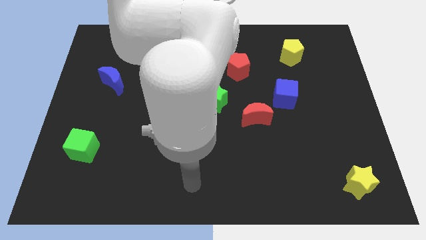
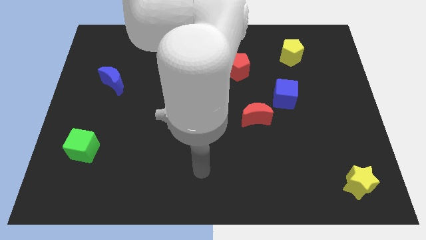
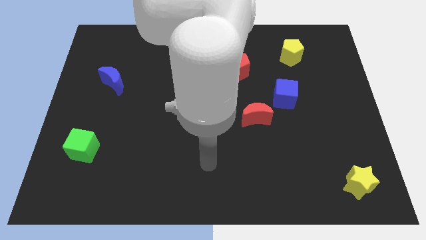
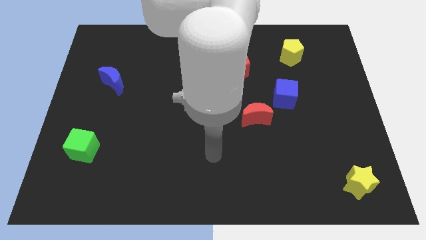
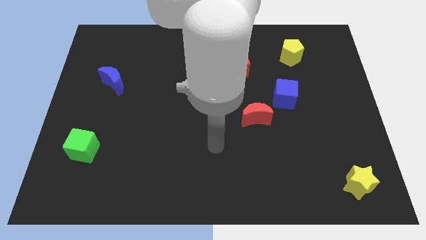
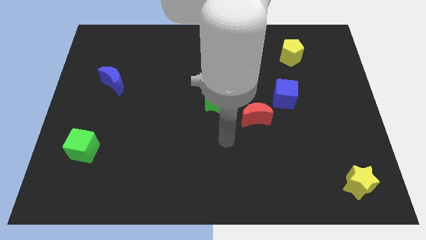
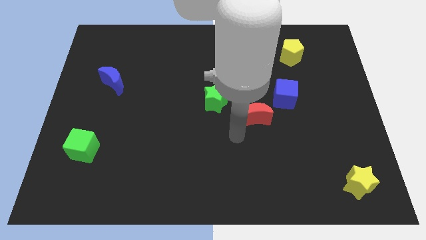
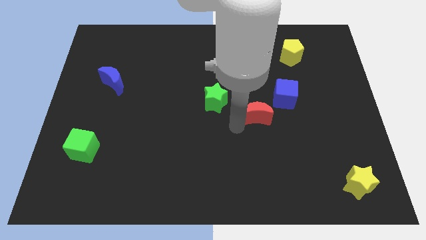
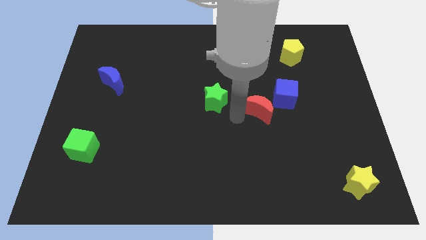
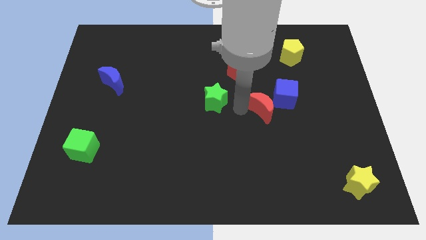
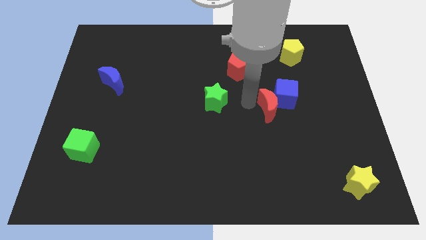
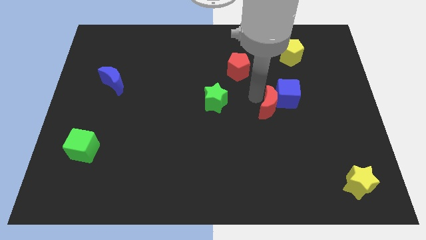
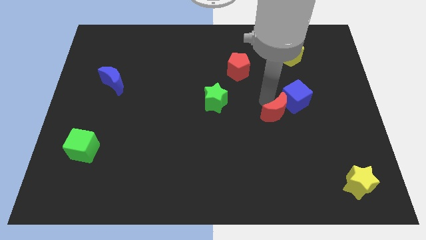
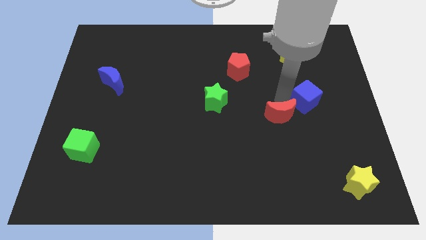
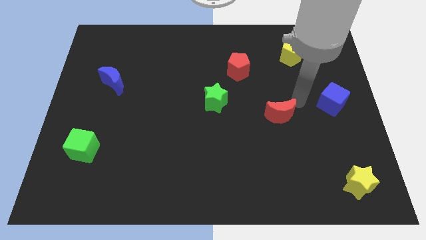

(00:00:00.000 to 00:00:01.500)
pull the red moon apart from the blue cube

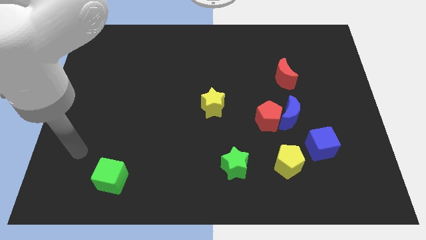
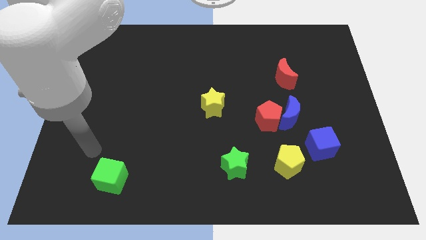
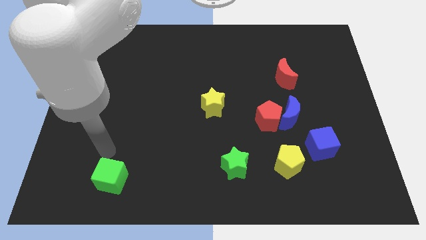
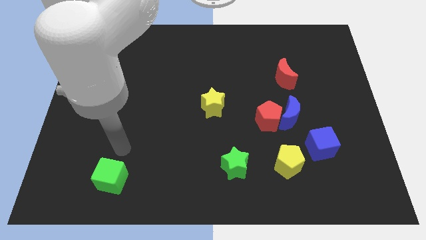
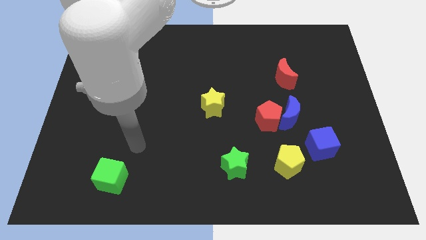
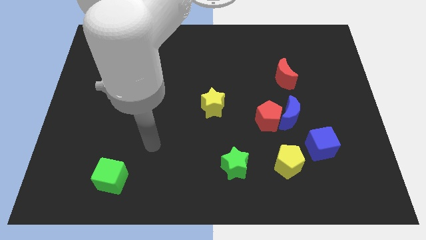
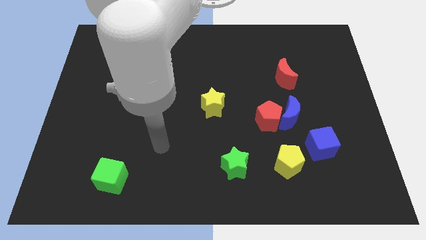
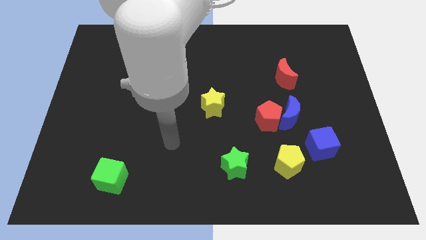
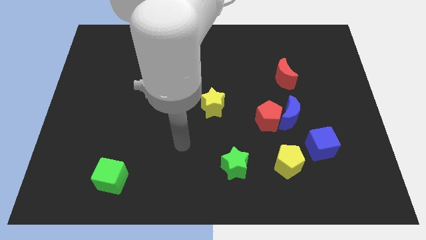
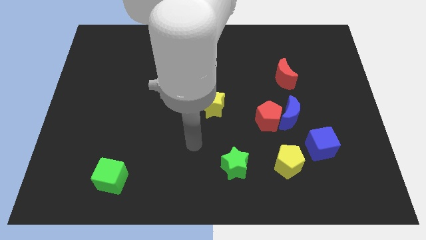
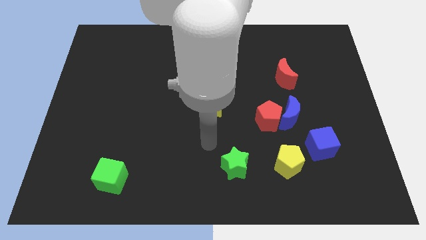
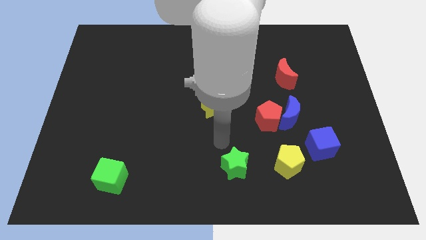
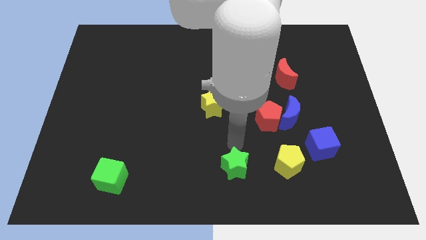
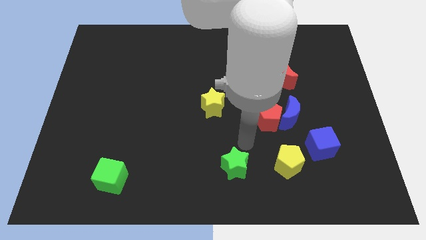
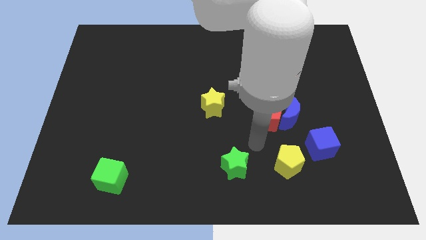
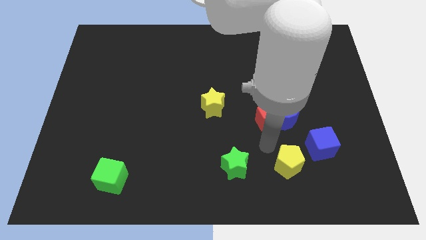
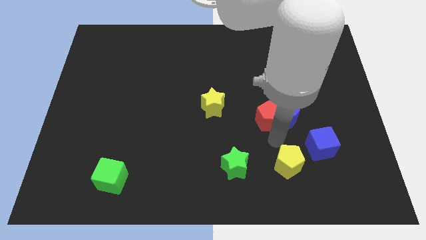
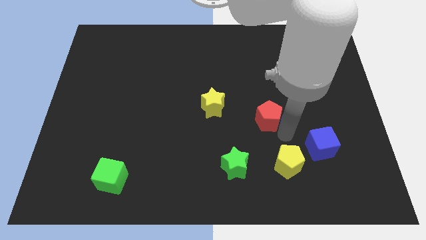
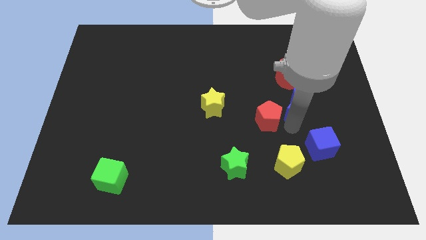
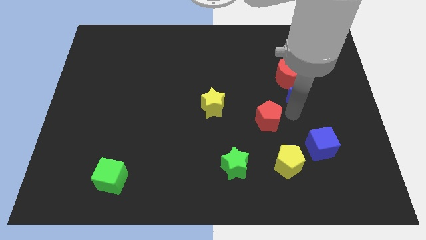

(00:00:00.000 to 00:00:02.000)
move the red pentagon away from the blue moon

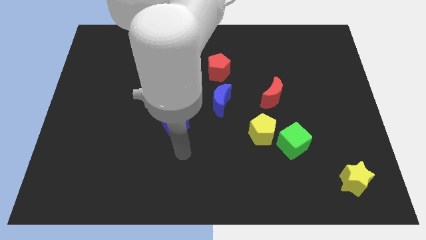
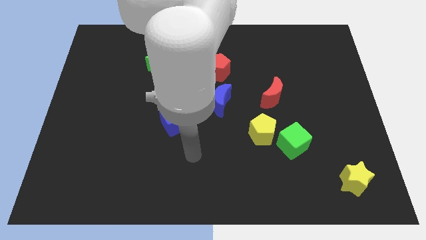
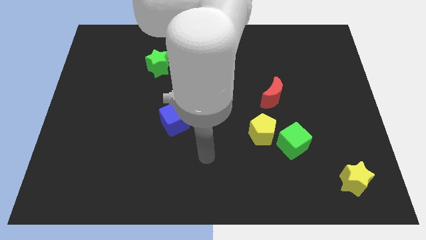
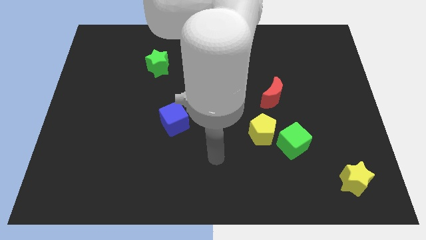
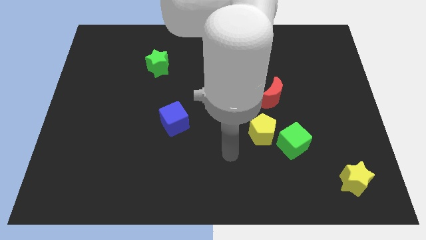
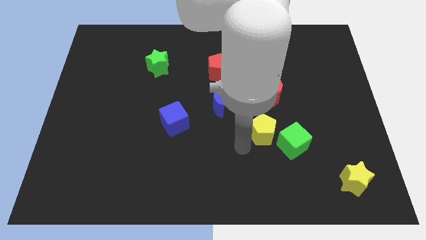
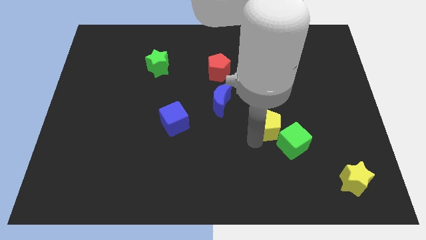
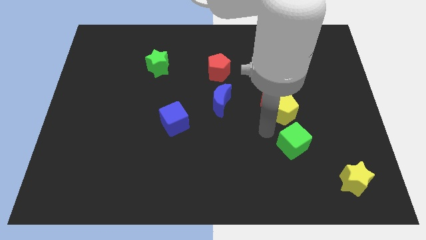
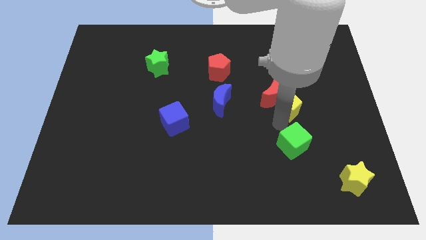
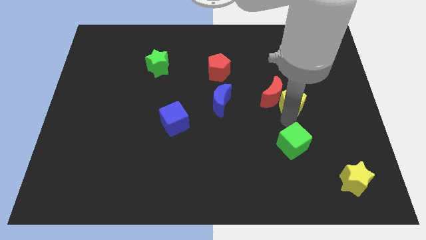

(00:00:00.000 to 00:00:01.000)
move the green cube away from the yellow pentagon

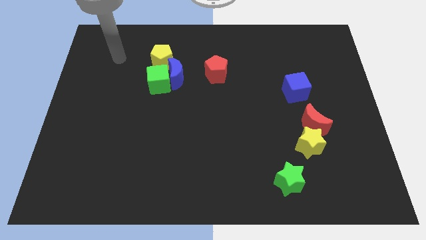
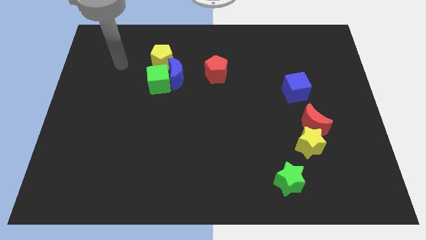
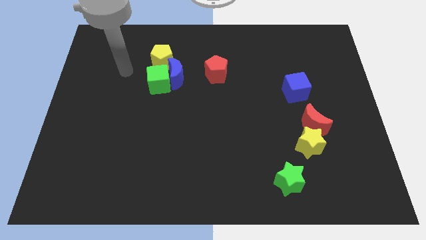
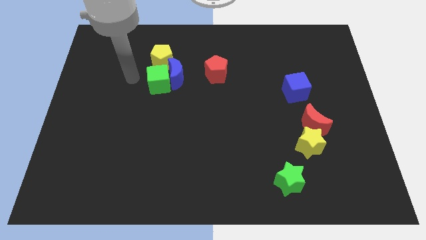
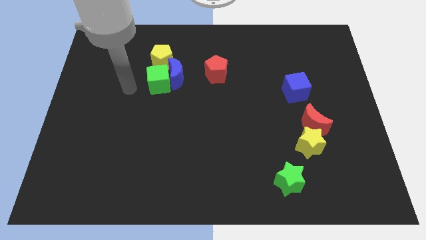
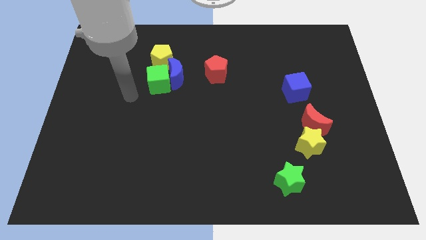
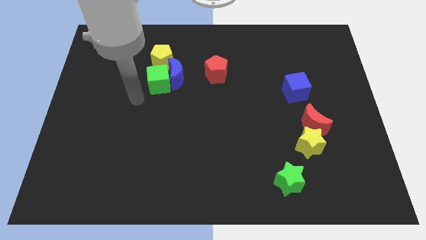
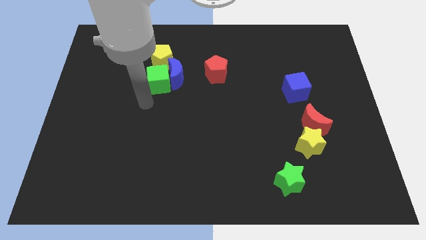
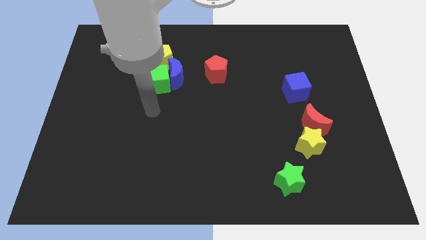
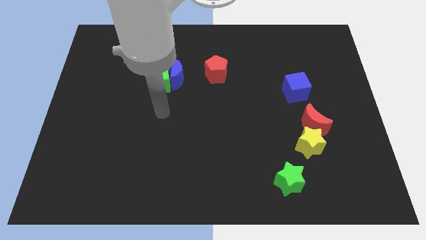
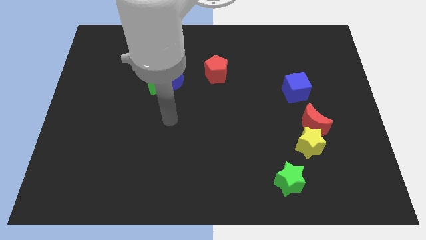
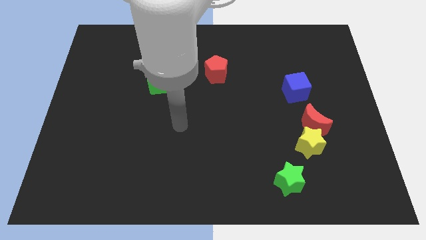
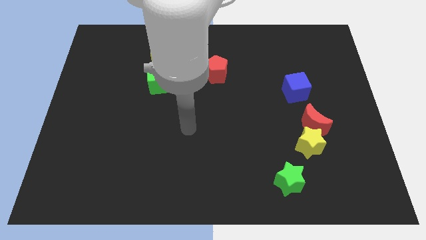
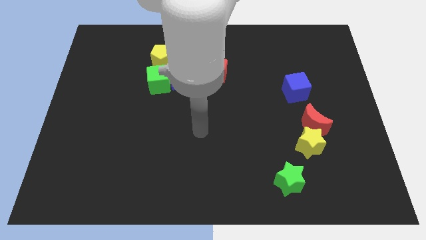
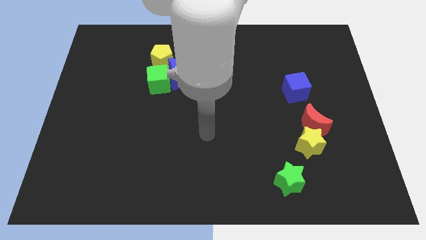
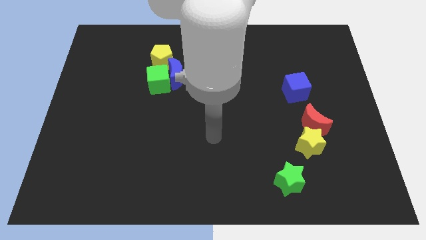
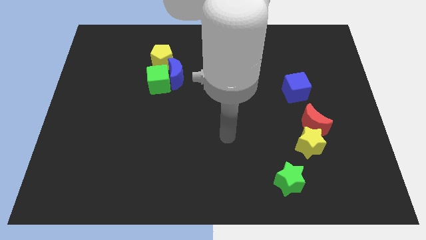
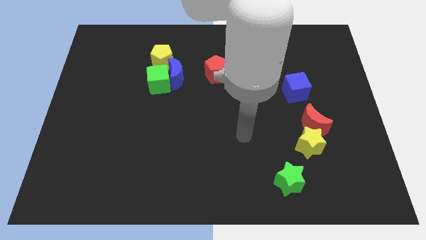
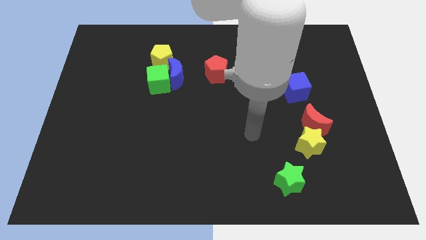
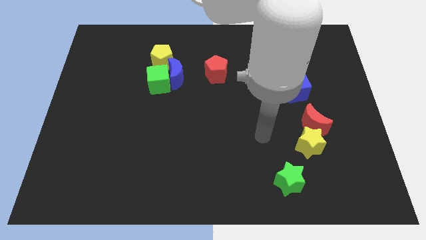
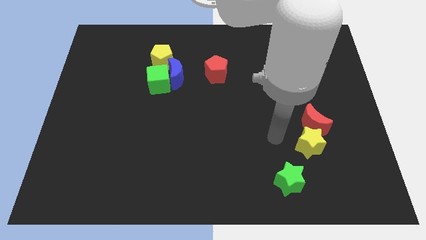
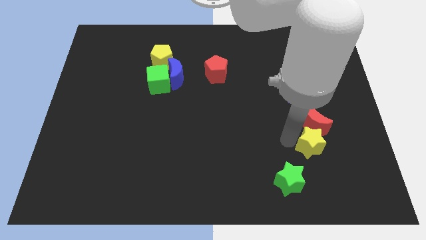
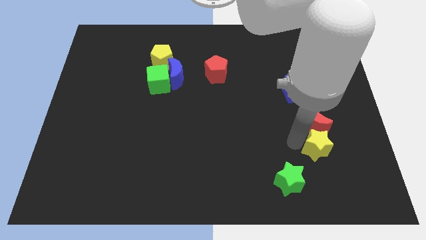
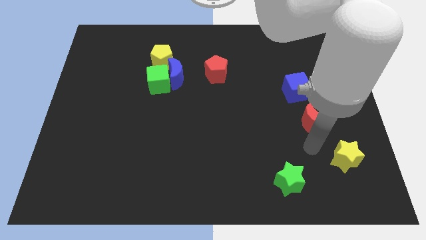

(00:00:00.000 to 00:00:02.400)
separate the red moon from the yellow star

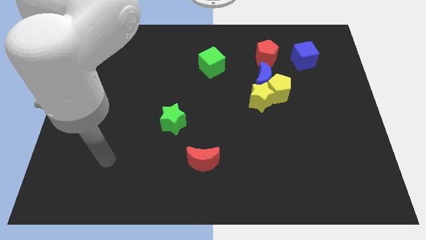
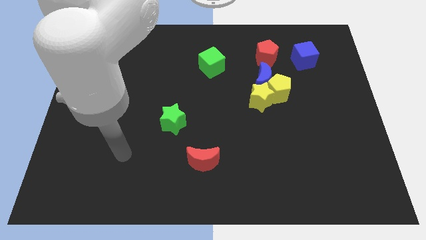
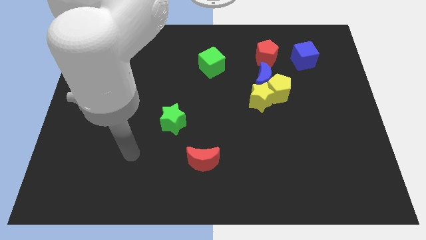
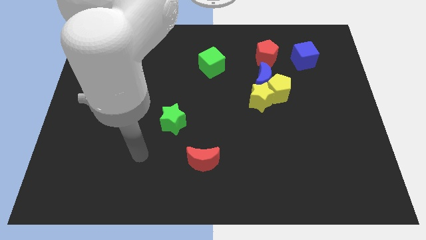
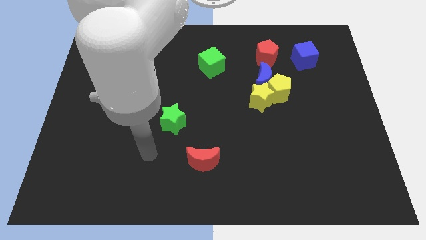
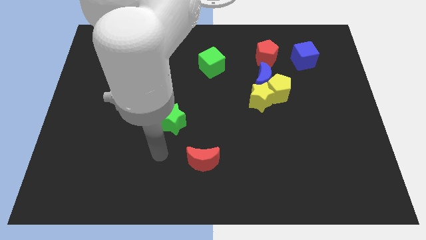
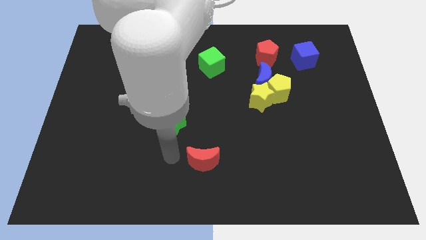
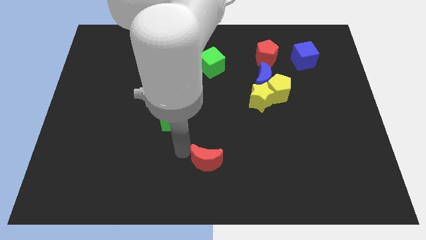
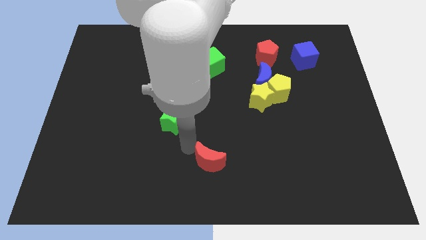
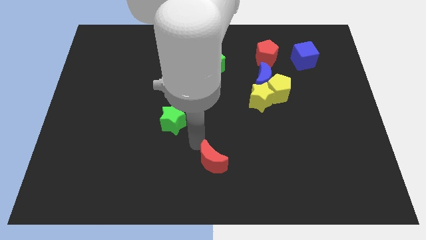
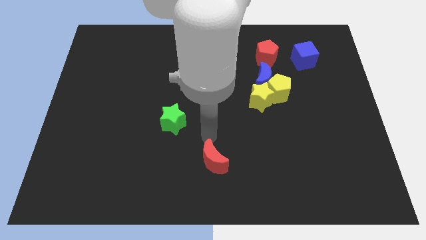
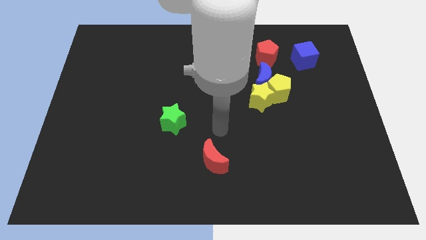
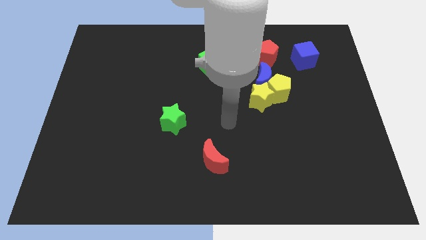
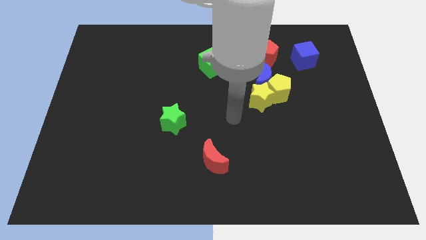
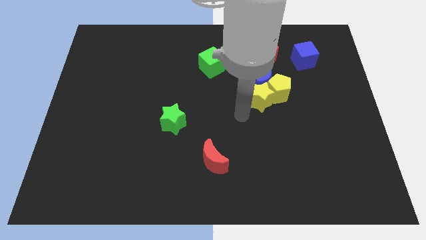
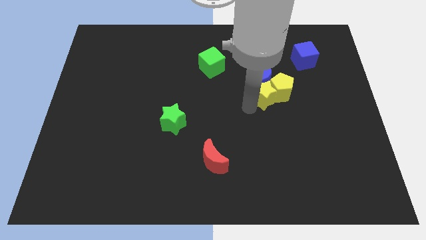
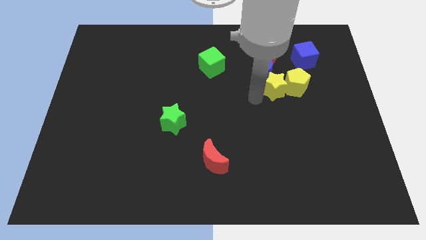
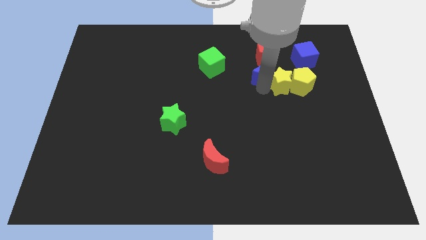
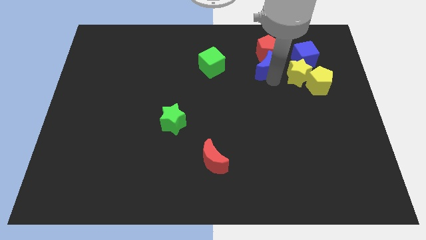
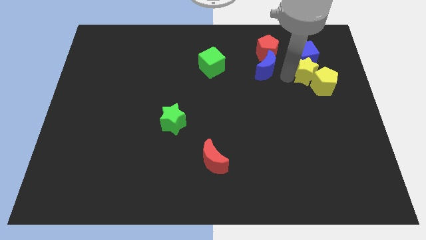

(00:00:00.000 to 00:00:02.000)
move the yellow pentagon away from the blue moon and yellow star

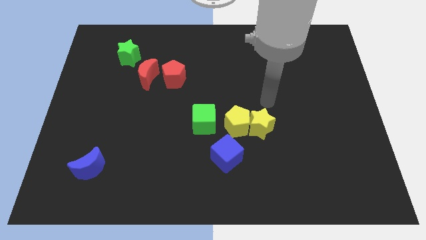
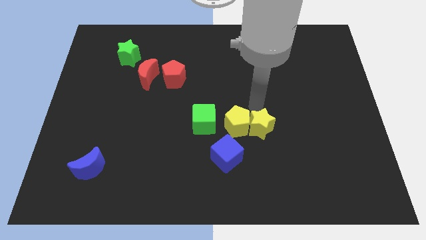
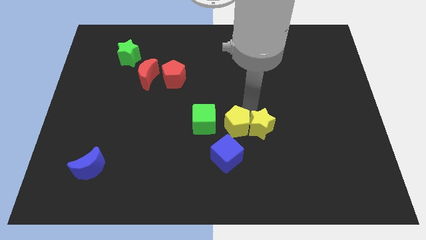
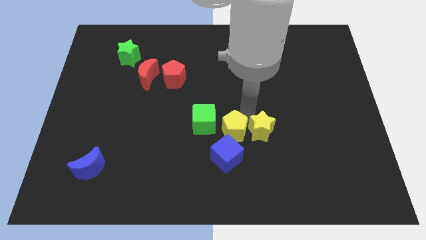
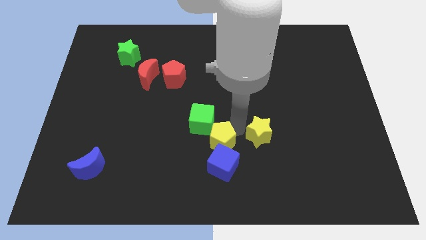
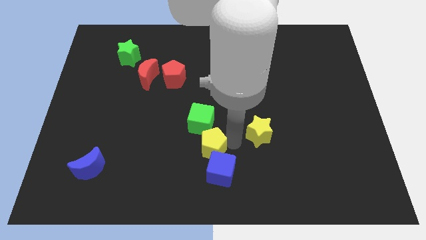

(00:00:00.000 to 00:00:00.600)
move the yellow star away from the yellow pentagon
